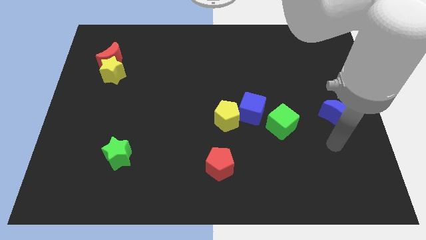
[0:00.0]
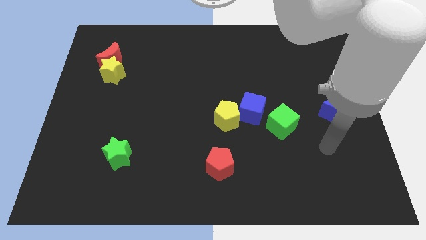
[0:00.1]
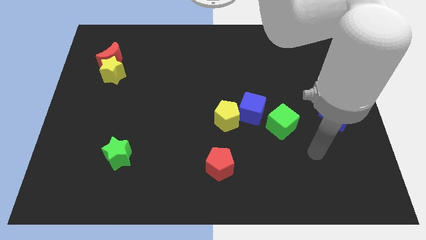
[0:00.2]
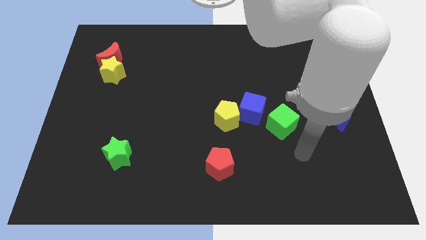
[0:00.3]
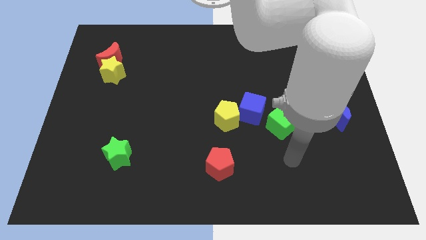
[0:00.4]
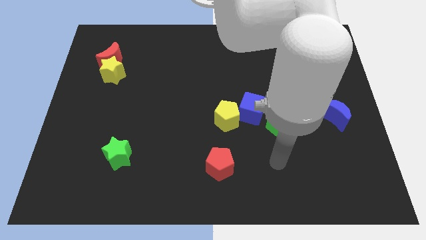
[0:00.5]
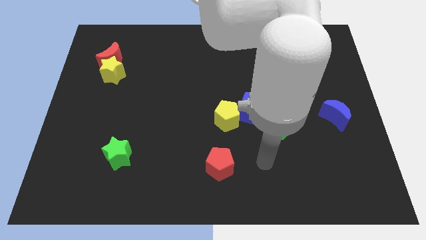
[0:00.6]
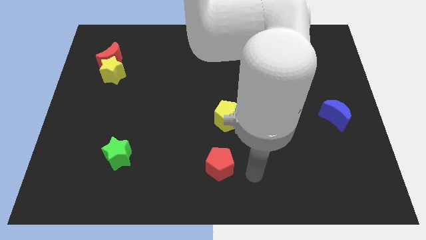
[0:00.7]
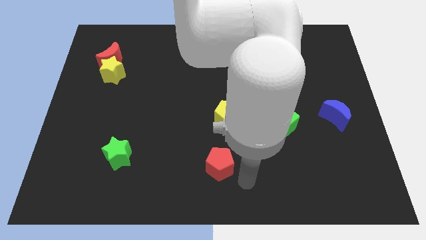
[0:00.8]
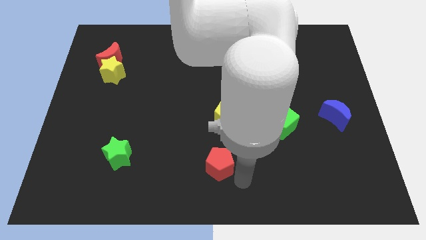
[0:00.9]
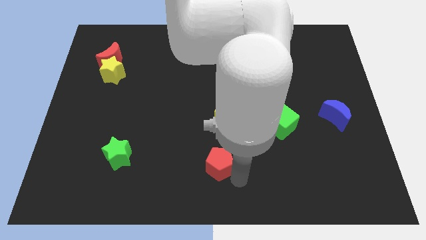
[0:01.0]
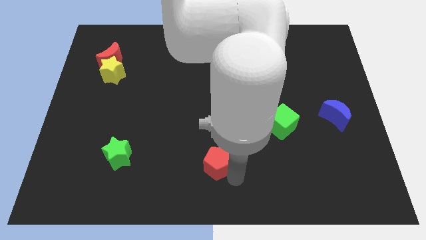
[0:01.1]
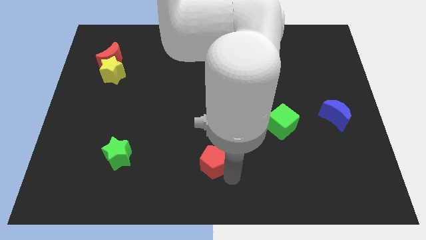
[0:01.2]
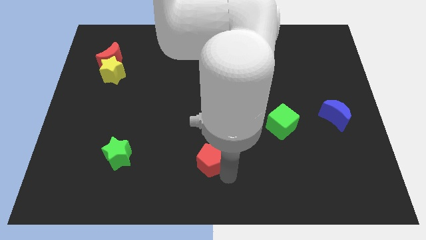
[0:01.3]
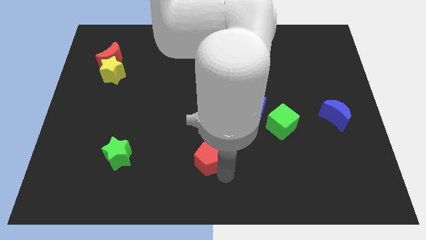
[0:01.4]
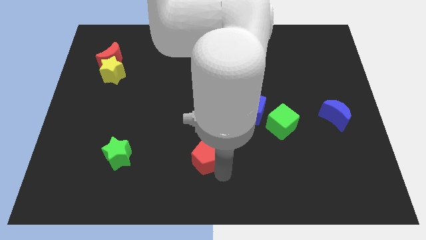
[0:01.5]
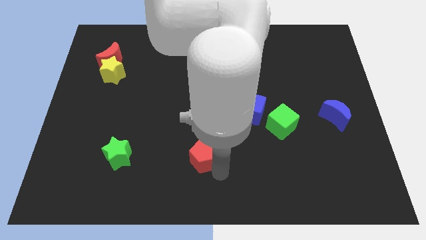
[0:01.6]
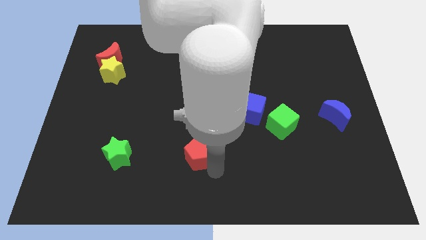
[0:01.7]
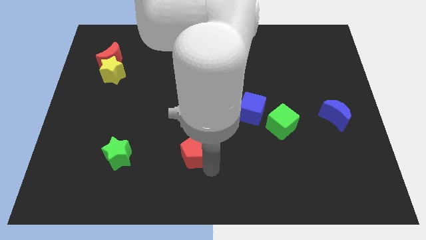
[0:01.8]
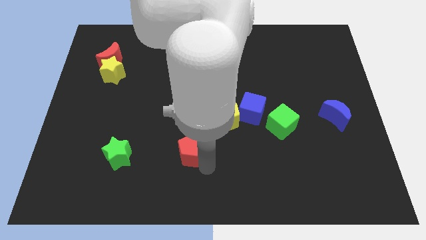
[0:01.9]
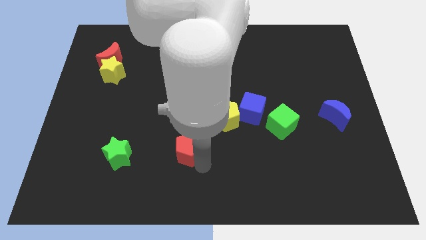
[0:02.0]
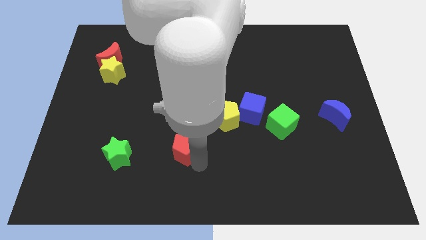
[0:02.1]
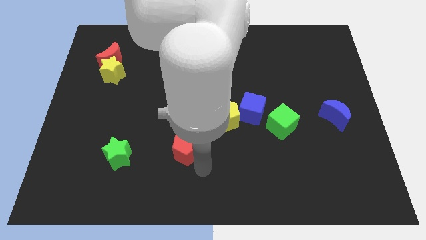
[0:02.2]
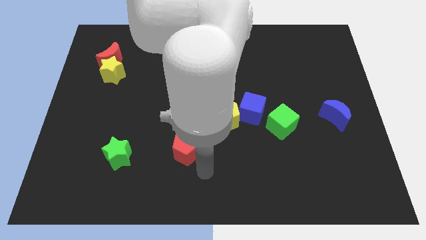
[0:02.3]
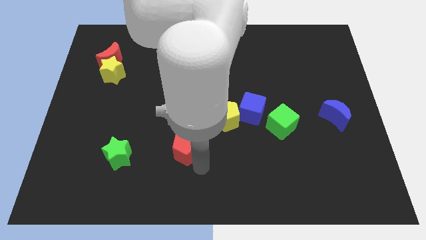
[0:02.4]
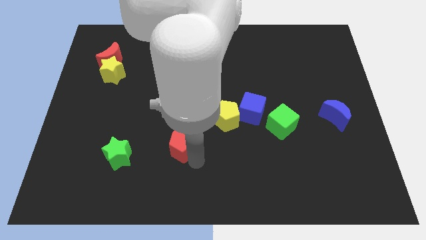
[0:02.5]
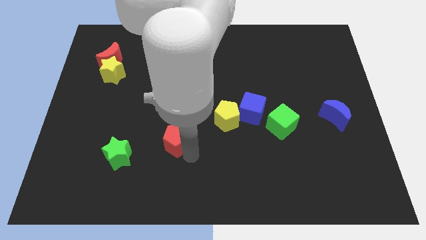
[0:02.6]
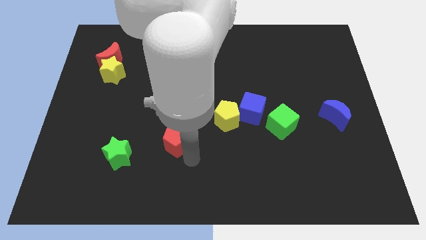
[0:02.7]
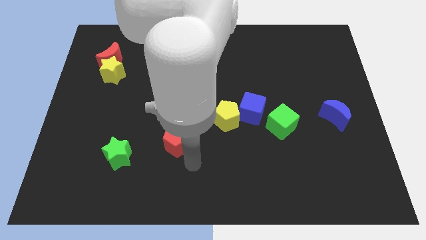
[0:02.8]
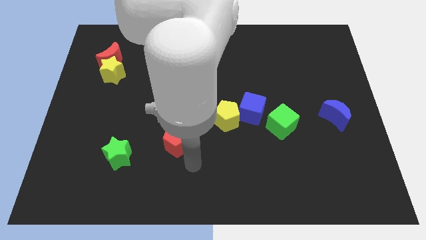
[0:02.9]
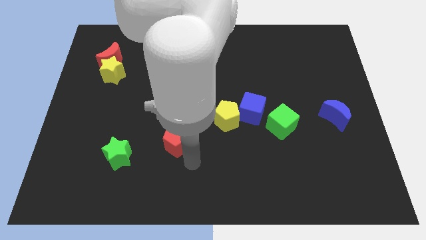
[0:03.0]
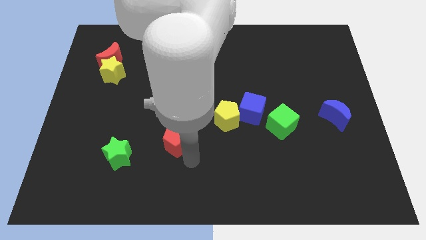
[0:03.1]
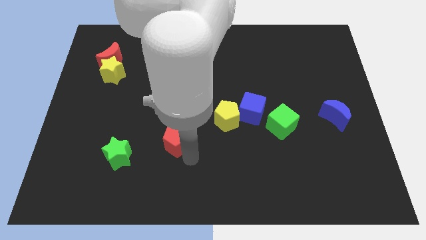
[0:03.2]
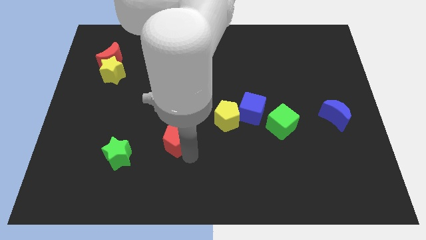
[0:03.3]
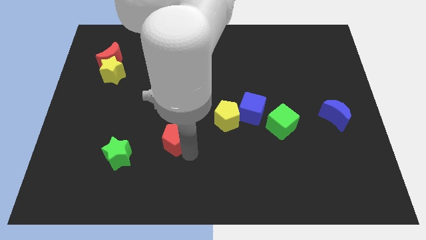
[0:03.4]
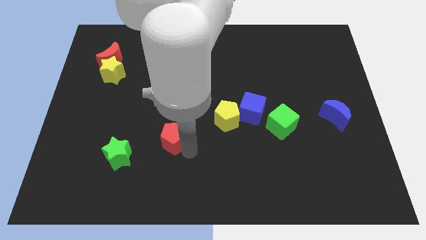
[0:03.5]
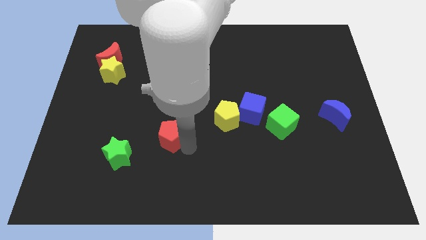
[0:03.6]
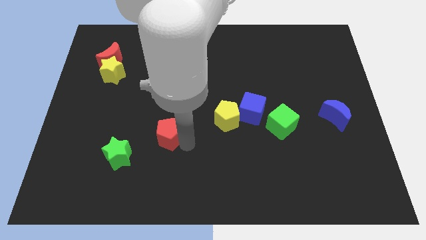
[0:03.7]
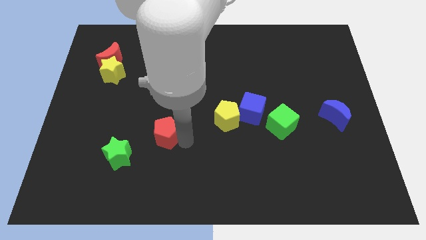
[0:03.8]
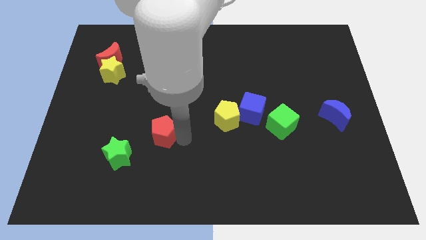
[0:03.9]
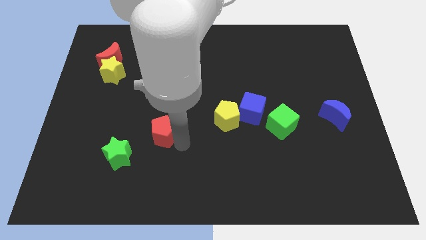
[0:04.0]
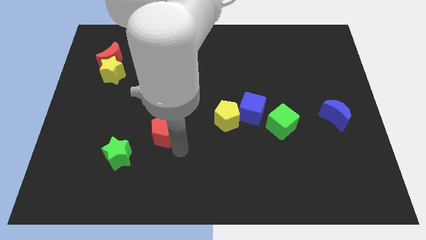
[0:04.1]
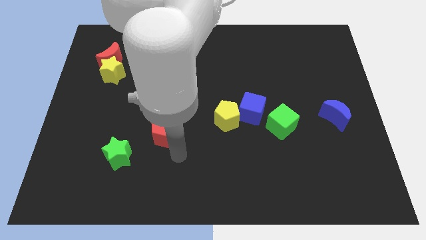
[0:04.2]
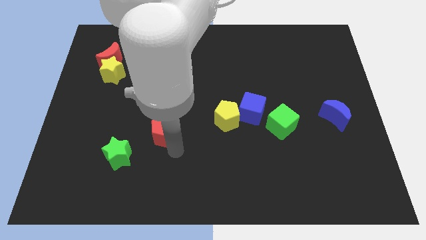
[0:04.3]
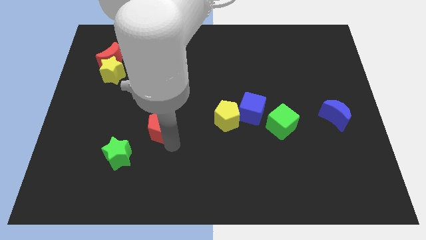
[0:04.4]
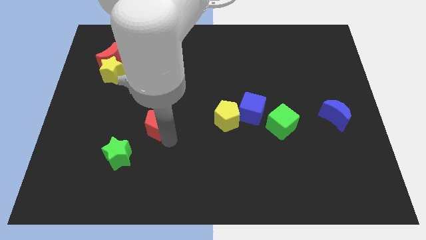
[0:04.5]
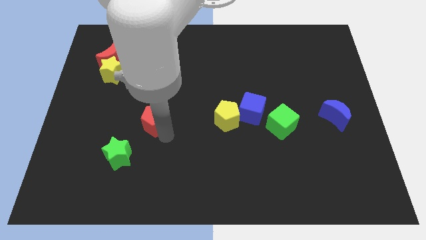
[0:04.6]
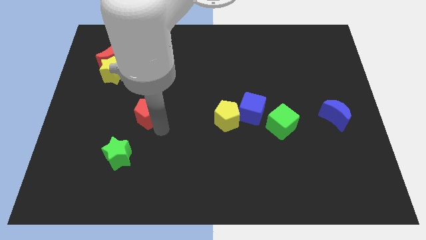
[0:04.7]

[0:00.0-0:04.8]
push the red pentagon upwards and to the left

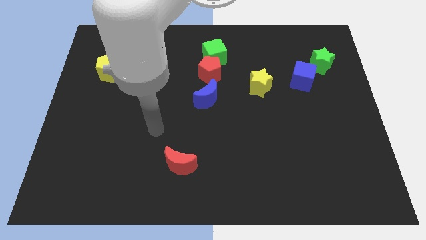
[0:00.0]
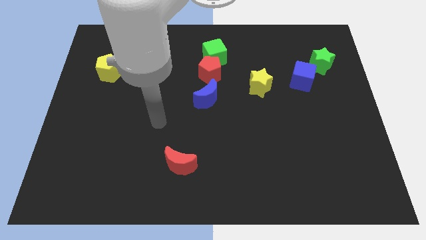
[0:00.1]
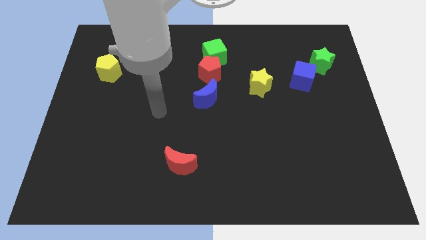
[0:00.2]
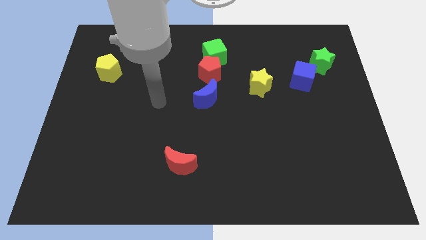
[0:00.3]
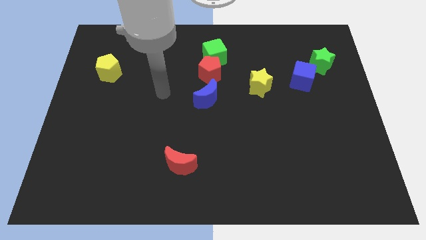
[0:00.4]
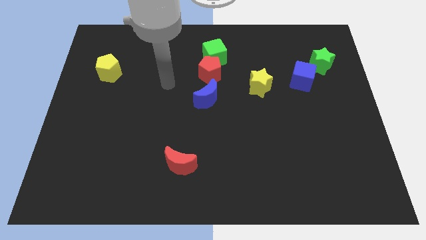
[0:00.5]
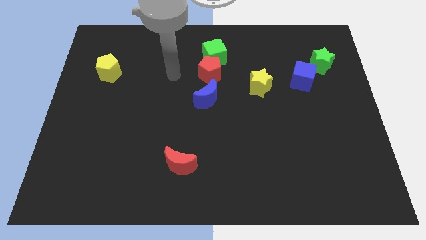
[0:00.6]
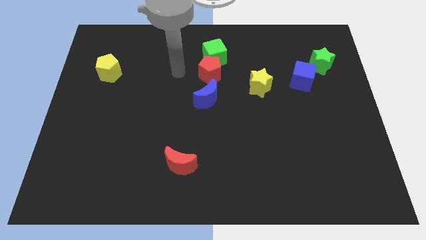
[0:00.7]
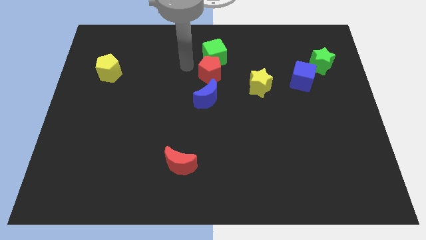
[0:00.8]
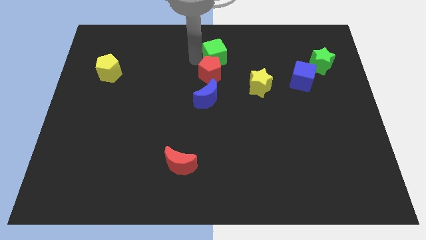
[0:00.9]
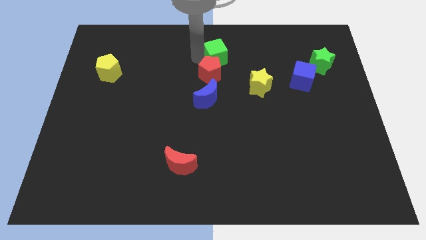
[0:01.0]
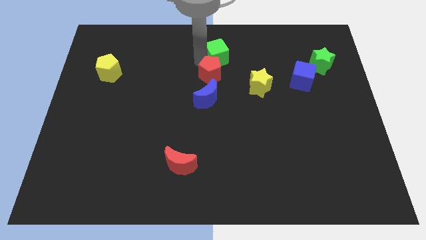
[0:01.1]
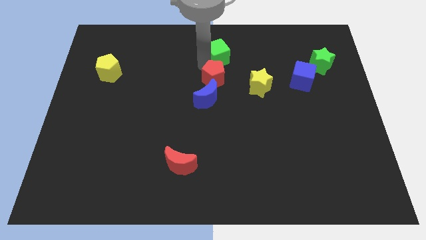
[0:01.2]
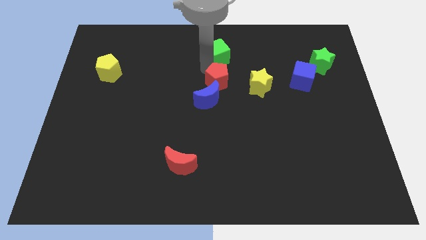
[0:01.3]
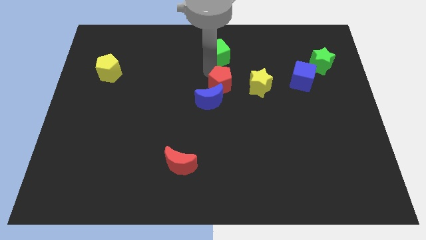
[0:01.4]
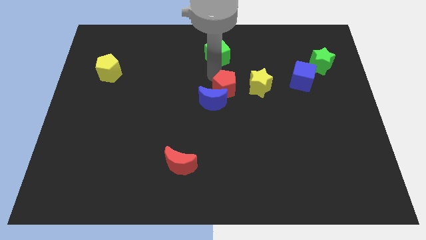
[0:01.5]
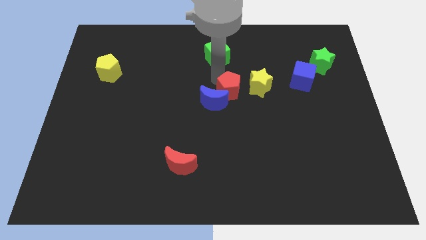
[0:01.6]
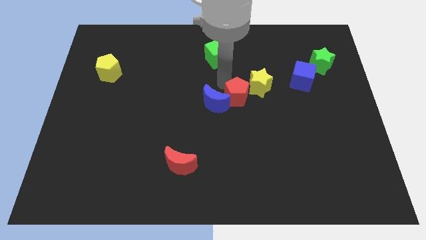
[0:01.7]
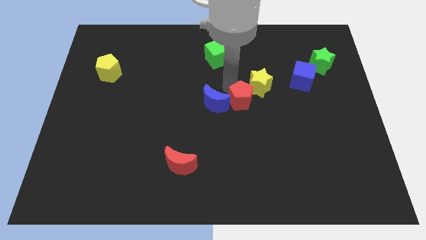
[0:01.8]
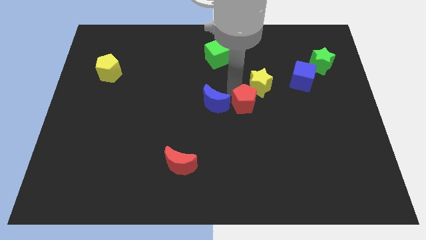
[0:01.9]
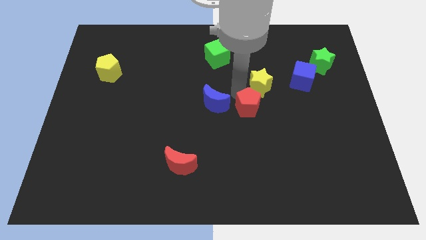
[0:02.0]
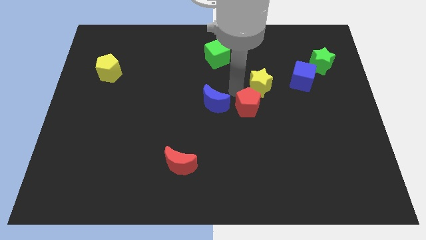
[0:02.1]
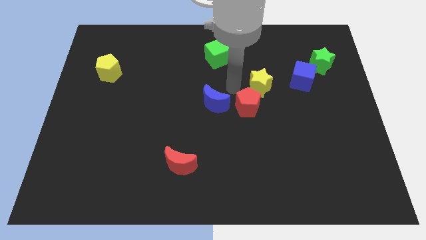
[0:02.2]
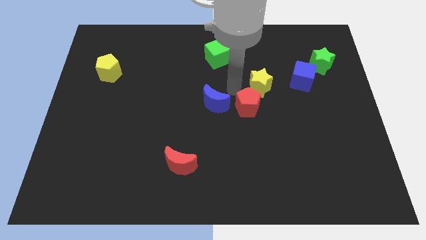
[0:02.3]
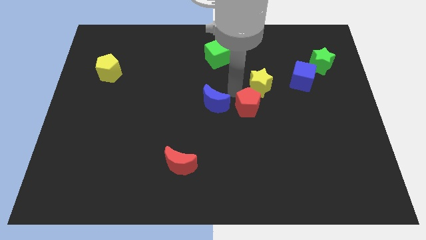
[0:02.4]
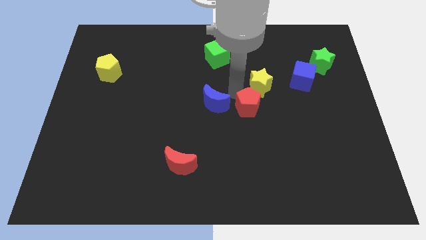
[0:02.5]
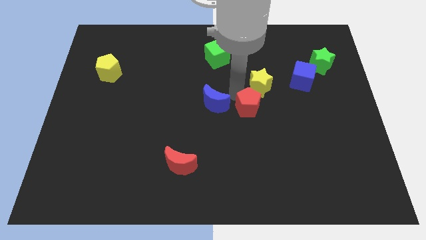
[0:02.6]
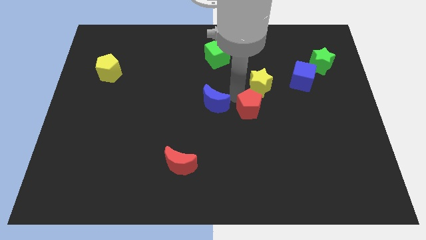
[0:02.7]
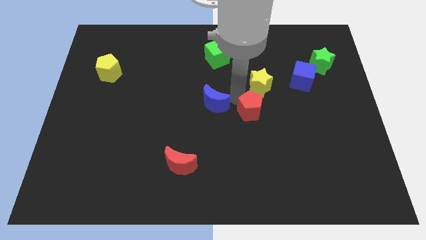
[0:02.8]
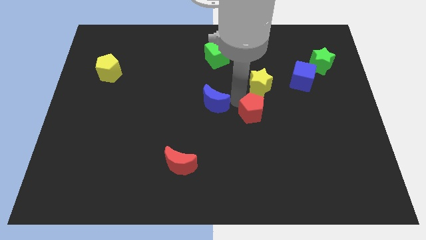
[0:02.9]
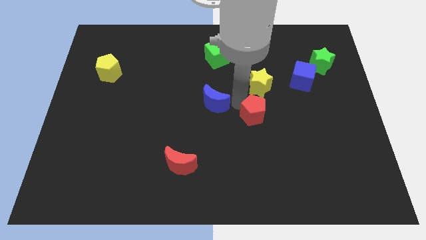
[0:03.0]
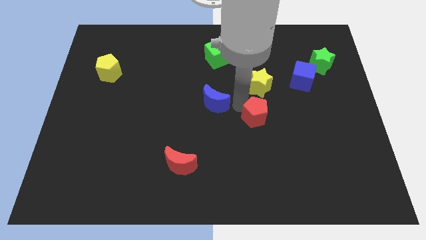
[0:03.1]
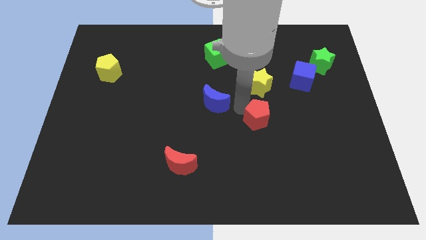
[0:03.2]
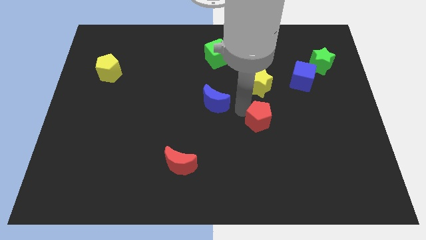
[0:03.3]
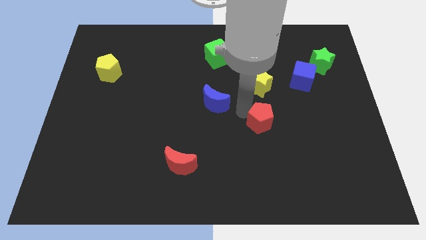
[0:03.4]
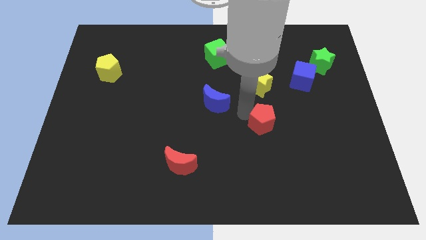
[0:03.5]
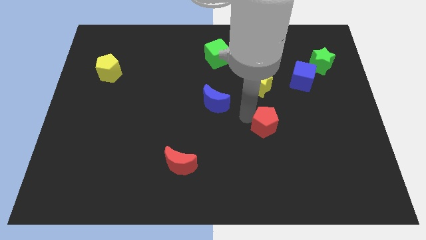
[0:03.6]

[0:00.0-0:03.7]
push the red pentagon downwards and right diagonally
